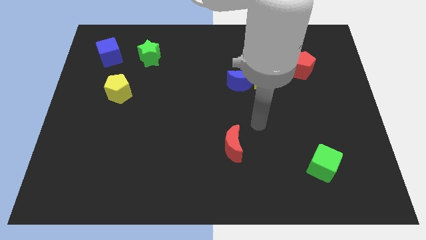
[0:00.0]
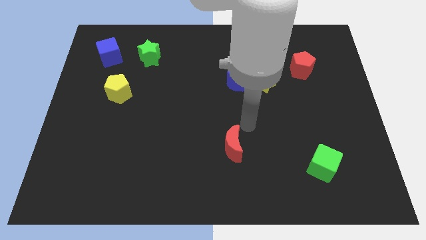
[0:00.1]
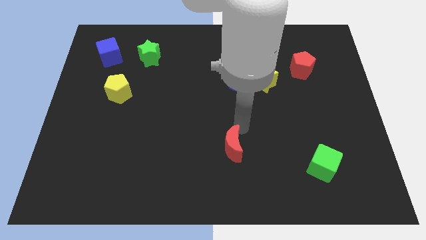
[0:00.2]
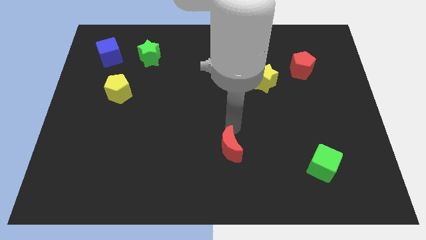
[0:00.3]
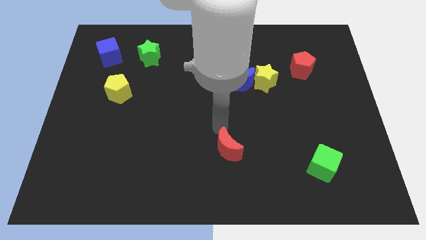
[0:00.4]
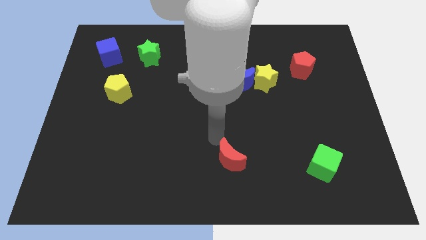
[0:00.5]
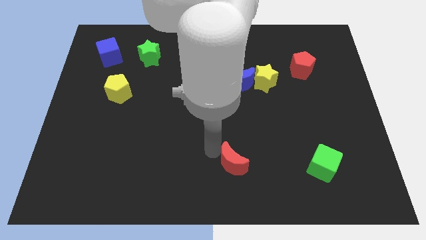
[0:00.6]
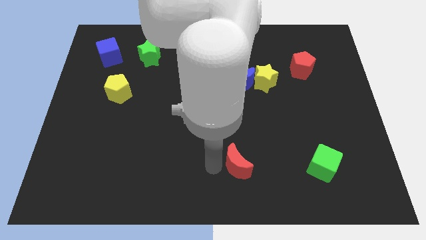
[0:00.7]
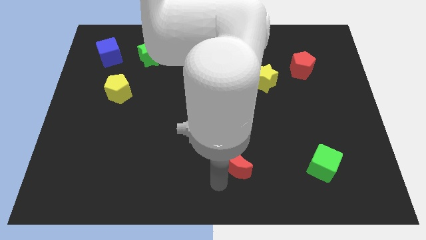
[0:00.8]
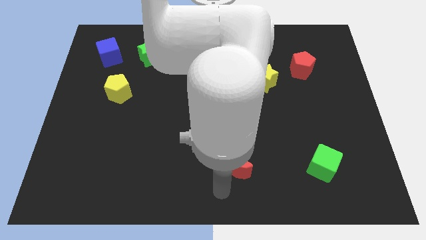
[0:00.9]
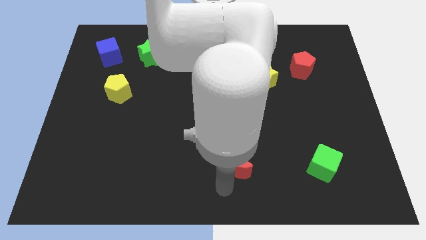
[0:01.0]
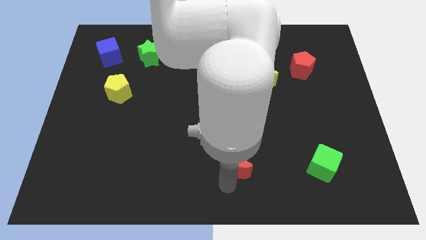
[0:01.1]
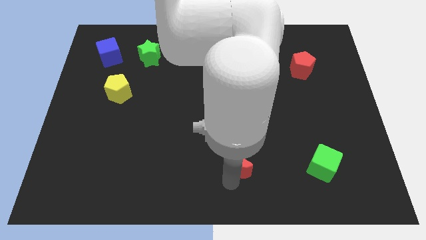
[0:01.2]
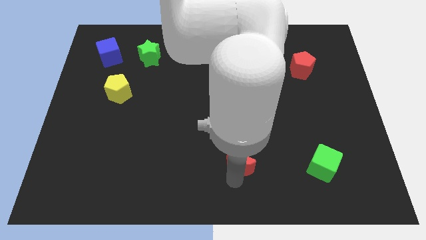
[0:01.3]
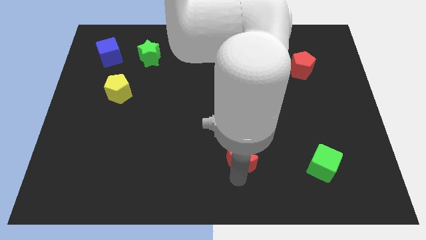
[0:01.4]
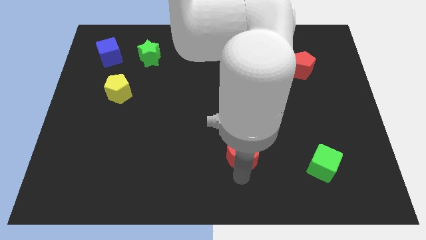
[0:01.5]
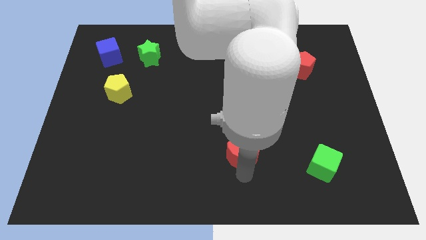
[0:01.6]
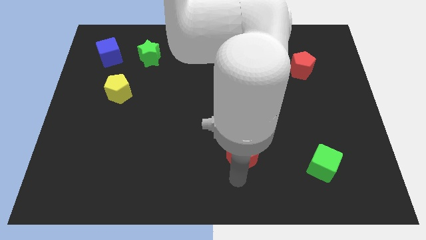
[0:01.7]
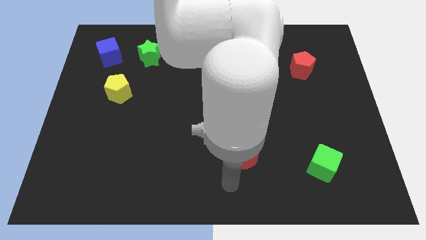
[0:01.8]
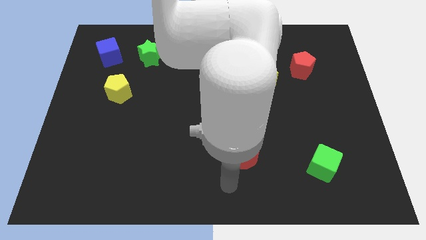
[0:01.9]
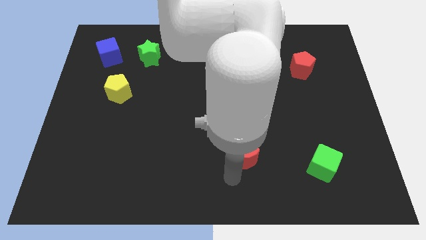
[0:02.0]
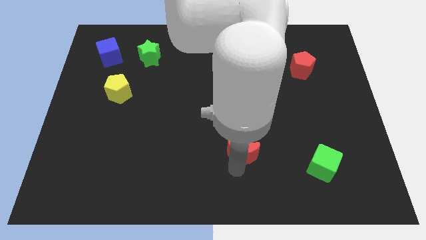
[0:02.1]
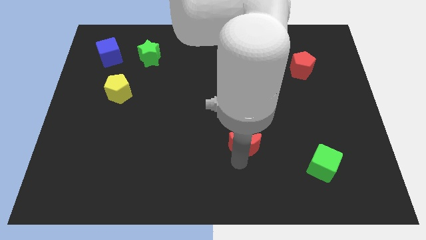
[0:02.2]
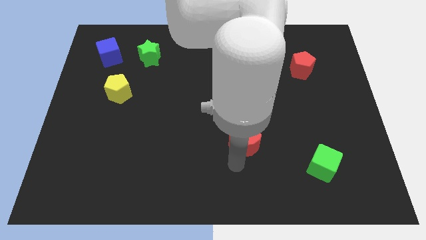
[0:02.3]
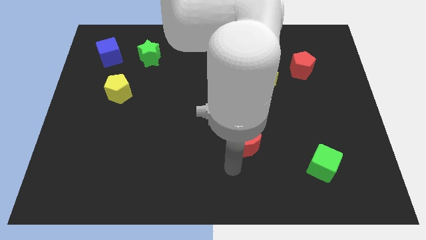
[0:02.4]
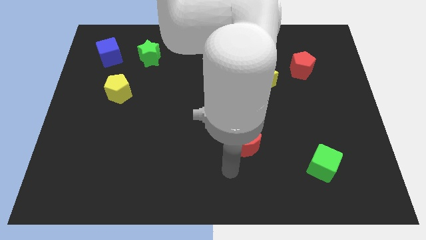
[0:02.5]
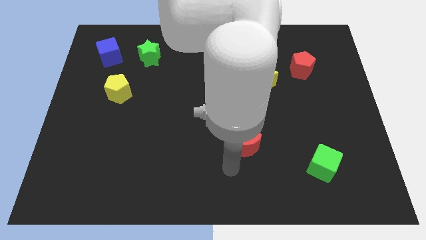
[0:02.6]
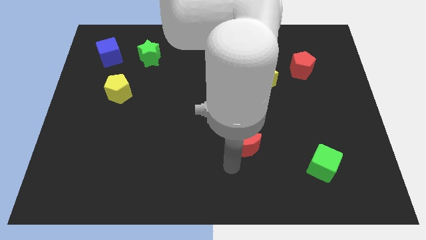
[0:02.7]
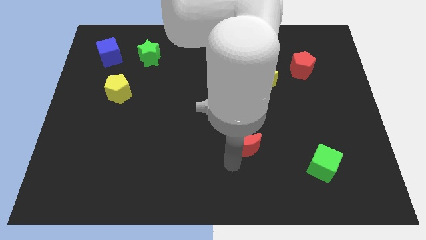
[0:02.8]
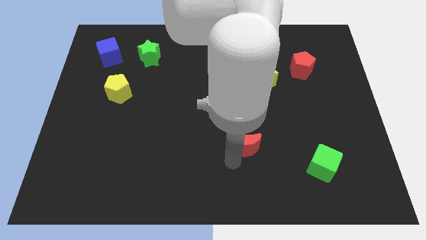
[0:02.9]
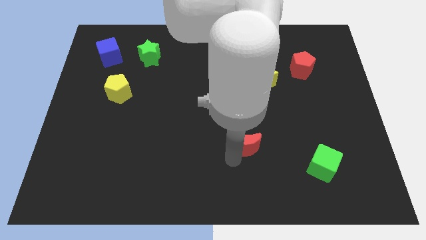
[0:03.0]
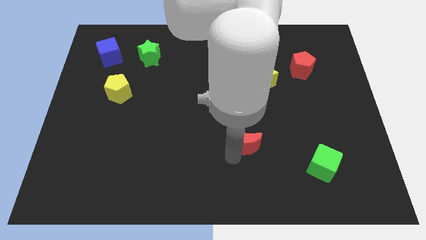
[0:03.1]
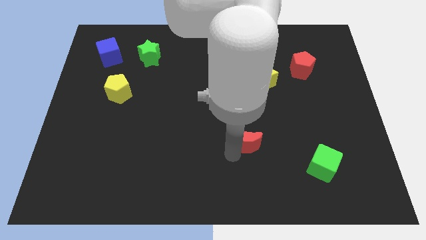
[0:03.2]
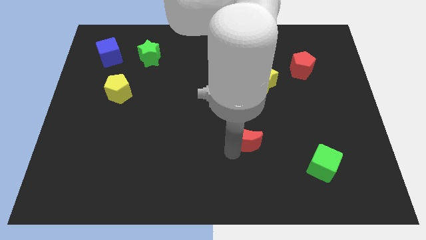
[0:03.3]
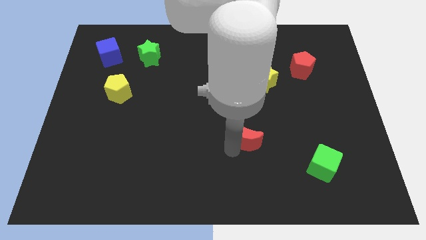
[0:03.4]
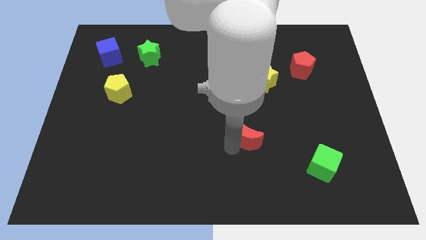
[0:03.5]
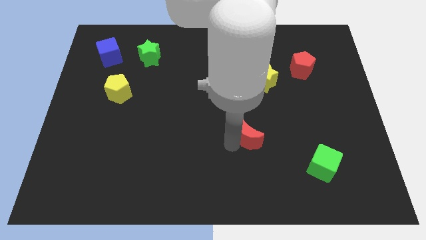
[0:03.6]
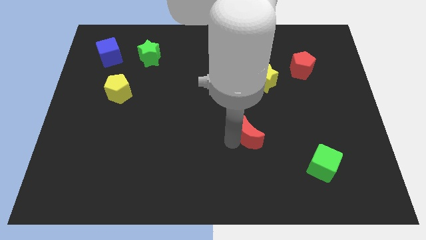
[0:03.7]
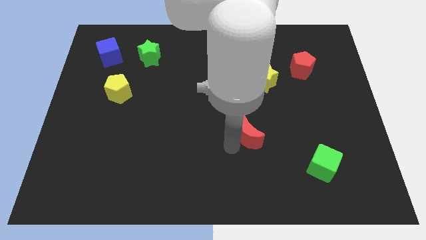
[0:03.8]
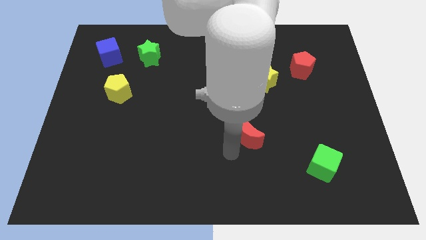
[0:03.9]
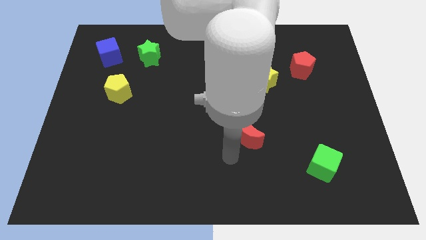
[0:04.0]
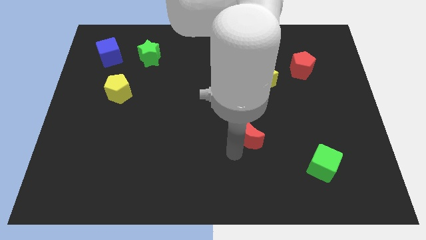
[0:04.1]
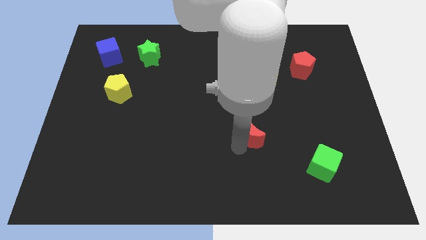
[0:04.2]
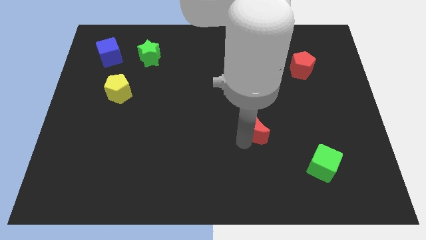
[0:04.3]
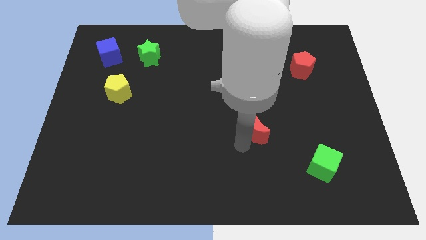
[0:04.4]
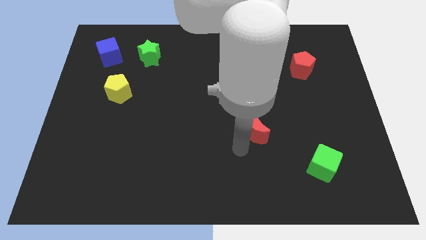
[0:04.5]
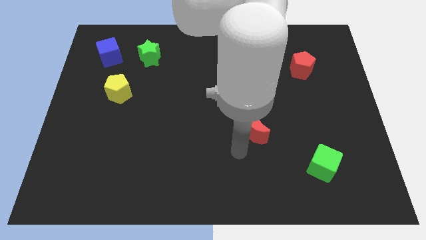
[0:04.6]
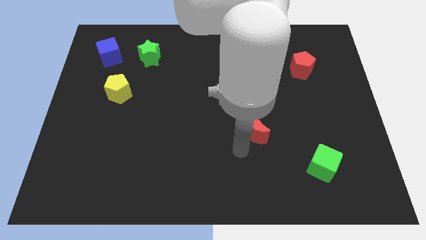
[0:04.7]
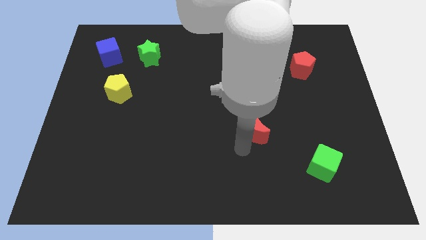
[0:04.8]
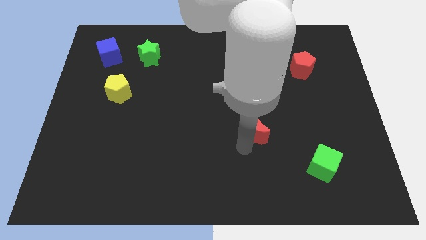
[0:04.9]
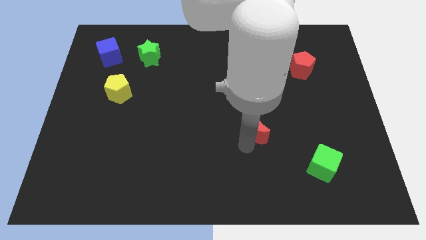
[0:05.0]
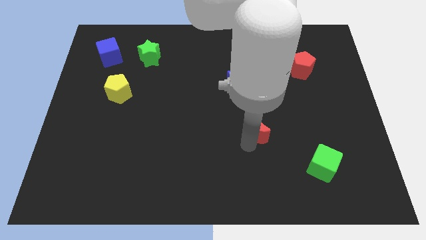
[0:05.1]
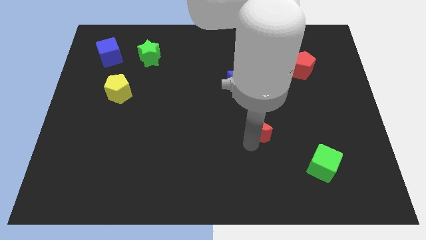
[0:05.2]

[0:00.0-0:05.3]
move the red moon up and to the right a little bit

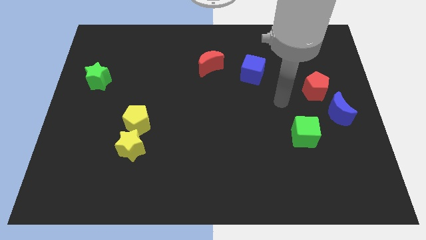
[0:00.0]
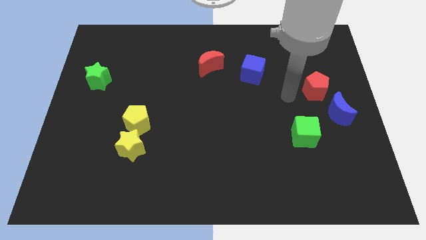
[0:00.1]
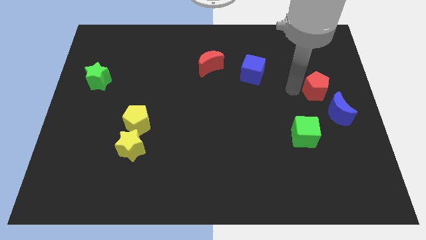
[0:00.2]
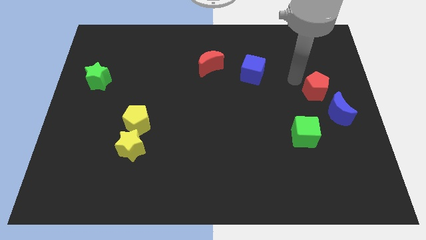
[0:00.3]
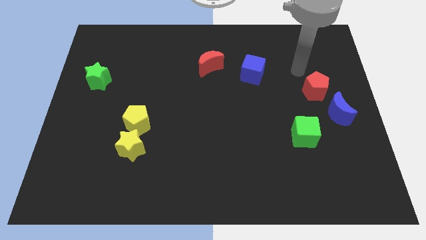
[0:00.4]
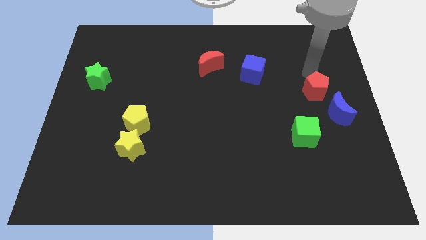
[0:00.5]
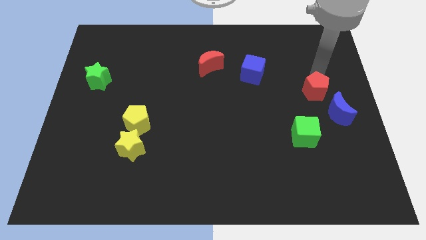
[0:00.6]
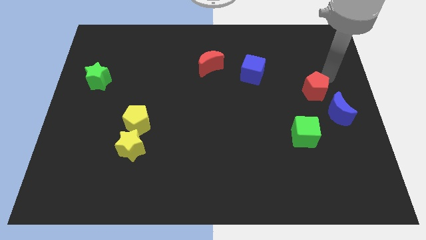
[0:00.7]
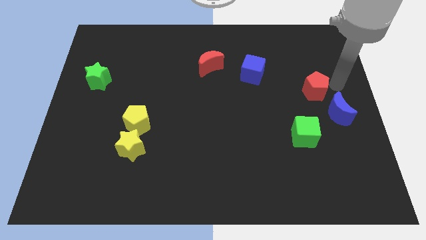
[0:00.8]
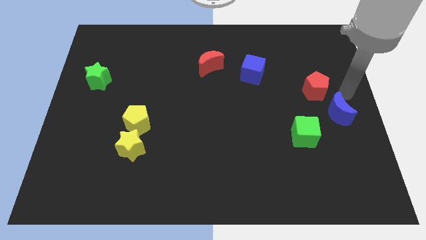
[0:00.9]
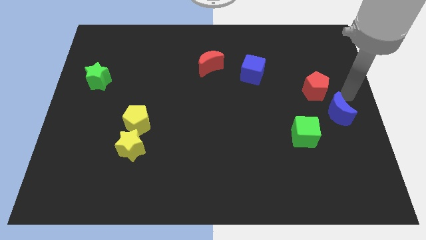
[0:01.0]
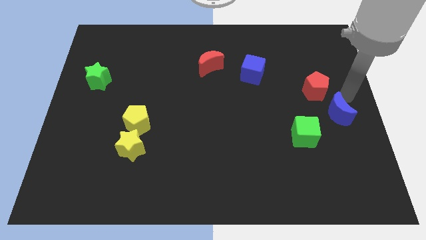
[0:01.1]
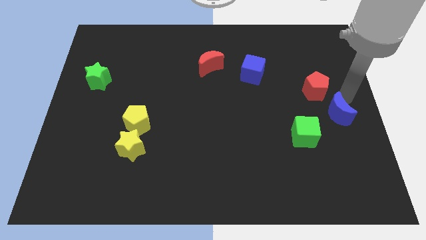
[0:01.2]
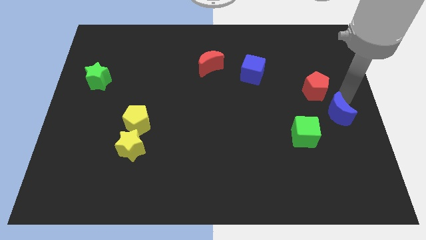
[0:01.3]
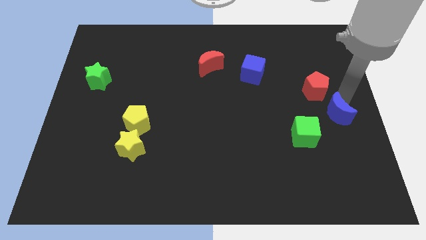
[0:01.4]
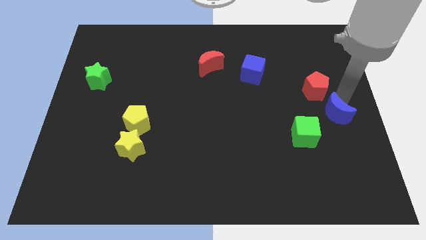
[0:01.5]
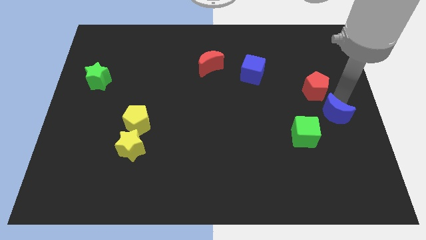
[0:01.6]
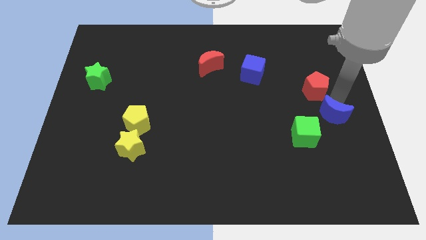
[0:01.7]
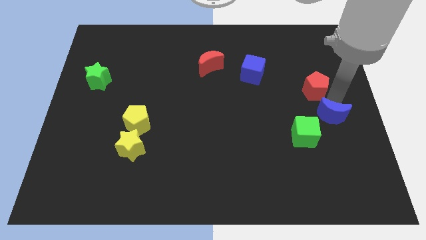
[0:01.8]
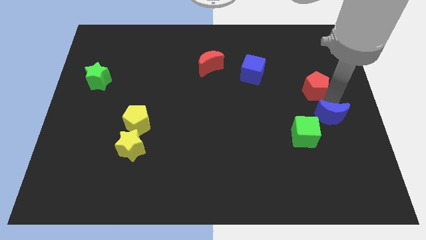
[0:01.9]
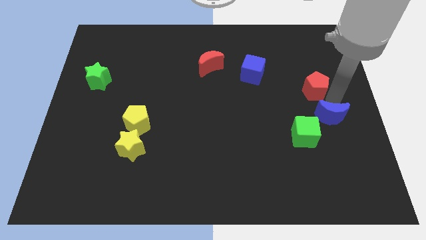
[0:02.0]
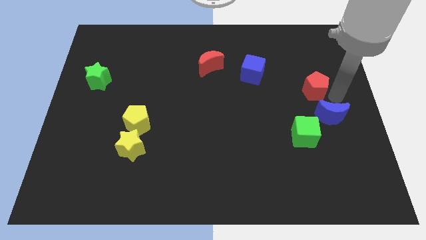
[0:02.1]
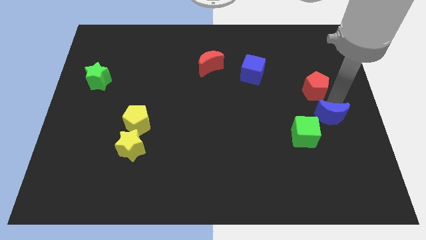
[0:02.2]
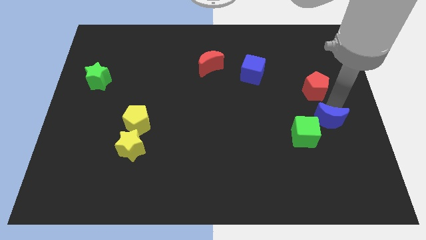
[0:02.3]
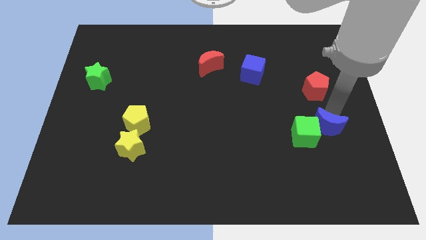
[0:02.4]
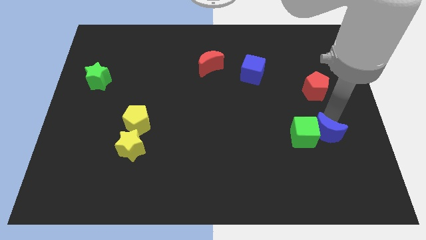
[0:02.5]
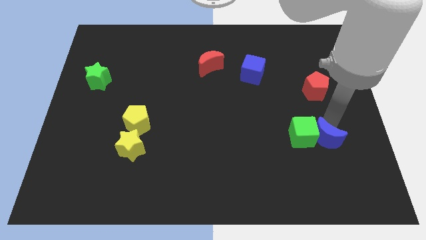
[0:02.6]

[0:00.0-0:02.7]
slightly slide the blue moon downwards and then left
